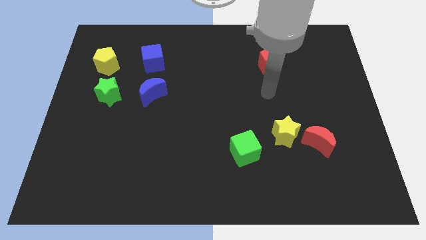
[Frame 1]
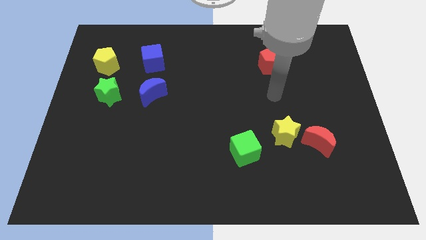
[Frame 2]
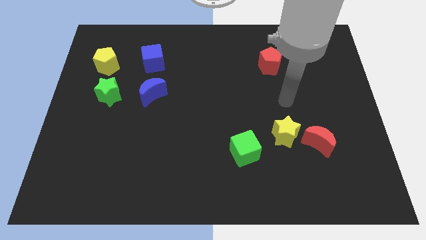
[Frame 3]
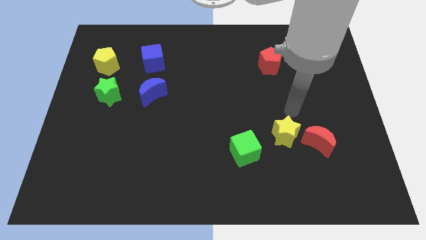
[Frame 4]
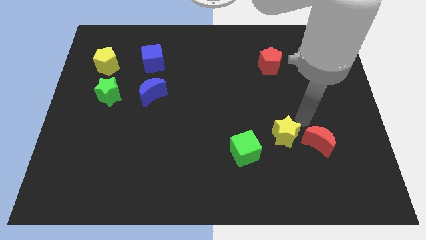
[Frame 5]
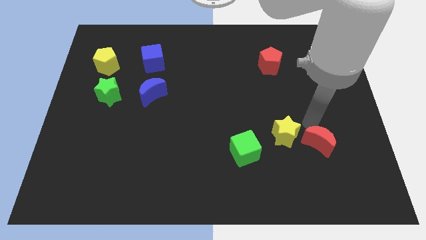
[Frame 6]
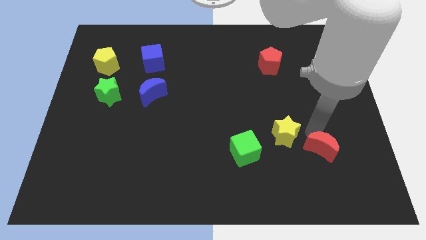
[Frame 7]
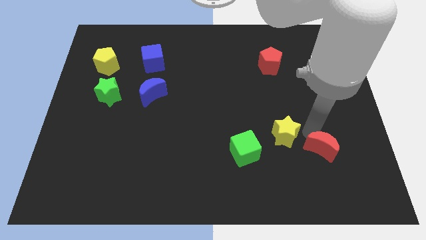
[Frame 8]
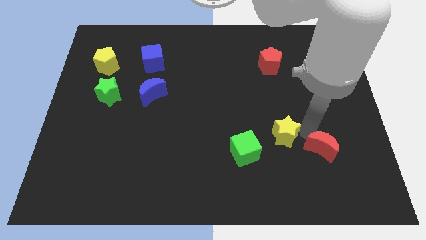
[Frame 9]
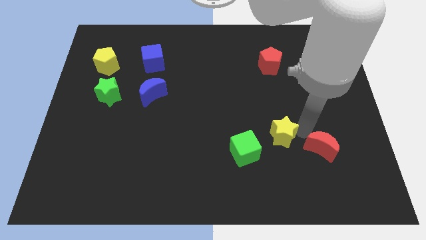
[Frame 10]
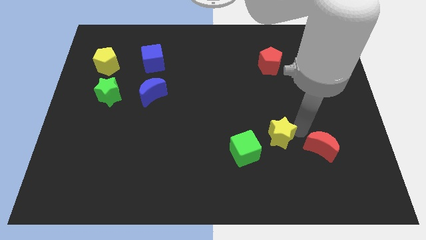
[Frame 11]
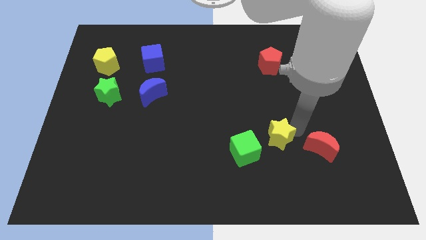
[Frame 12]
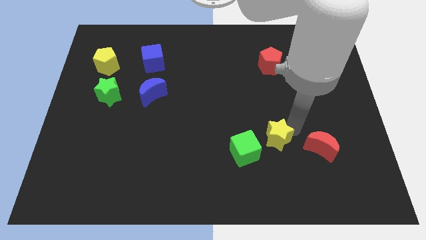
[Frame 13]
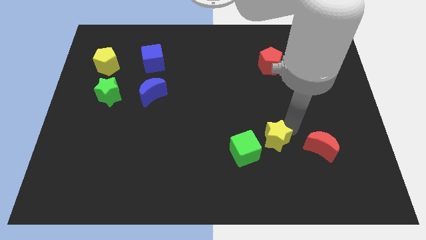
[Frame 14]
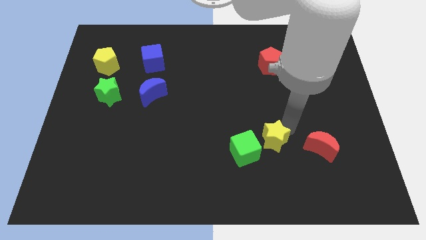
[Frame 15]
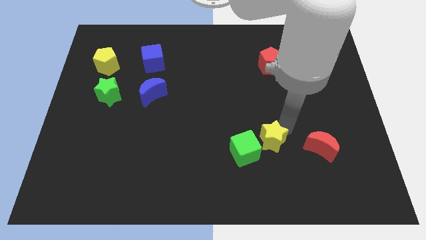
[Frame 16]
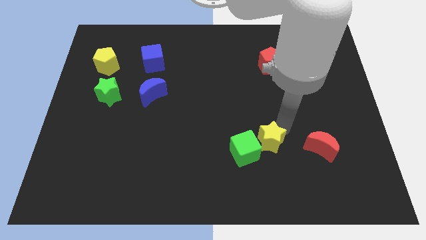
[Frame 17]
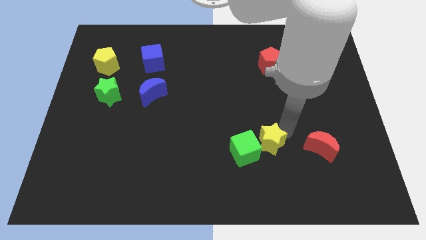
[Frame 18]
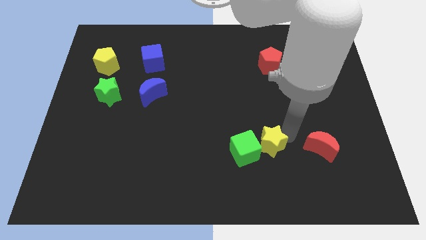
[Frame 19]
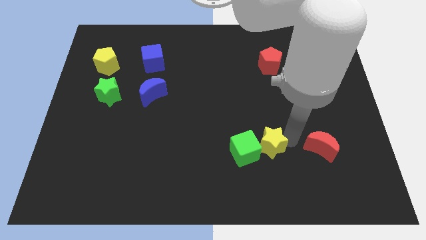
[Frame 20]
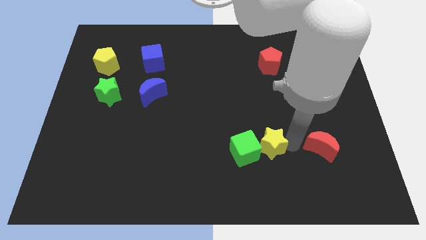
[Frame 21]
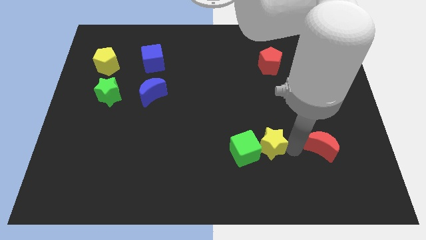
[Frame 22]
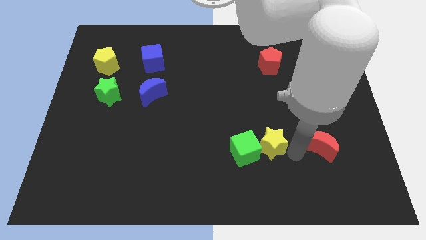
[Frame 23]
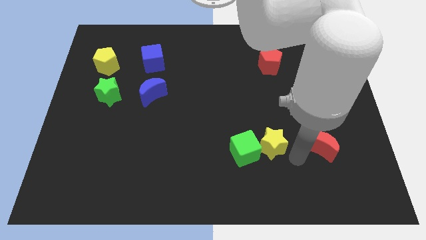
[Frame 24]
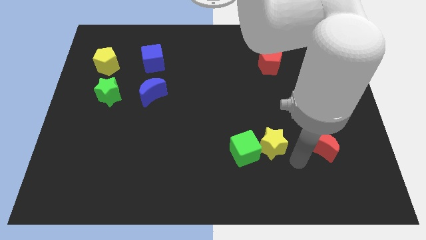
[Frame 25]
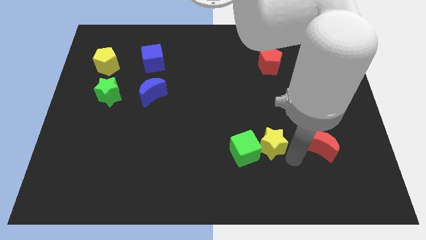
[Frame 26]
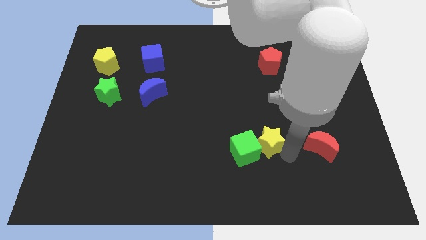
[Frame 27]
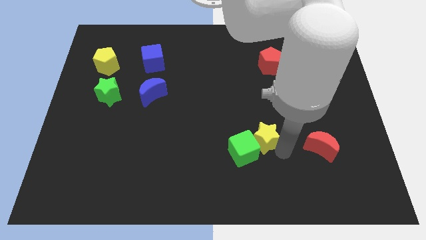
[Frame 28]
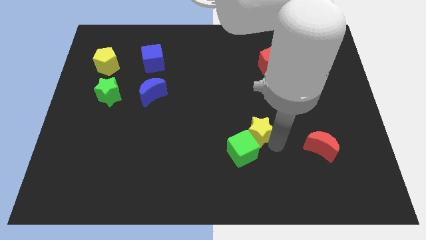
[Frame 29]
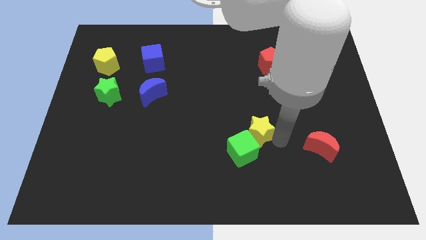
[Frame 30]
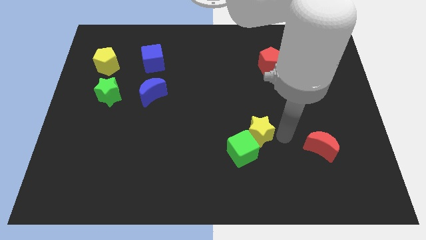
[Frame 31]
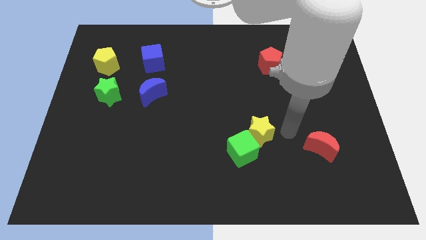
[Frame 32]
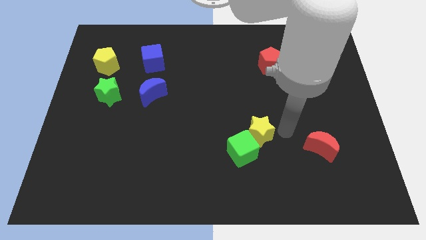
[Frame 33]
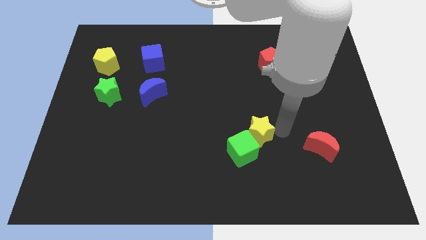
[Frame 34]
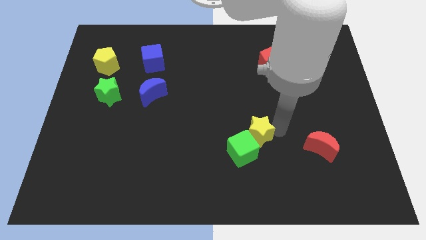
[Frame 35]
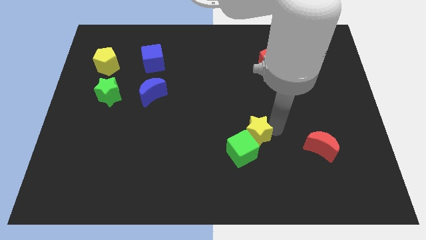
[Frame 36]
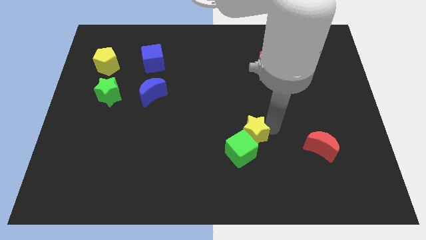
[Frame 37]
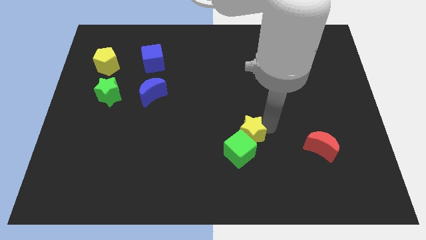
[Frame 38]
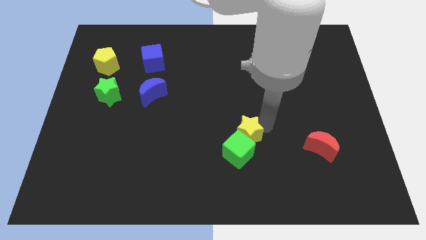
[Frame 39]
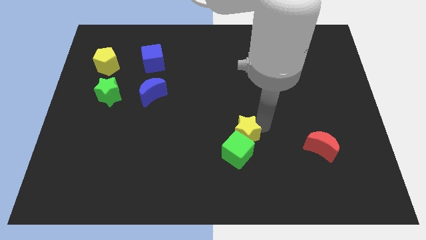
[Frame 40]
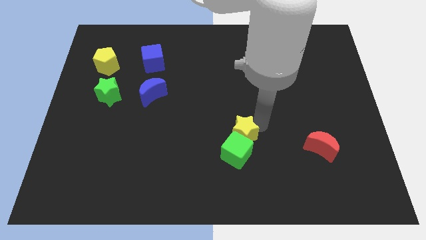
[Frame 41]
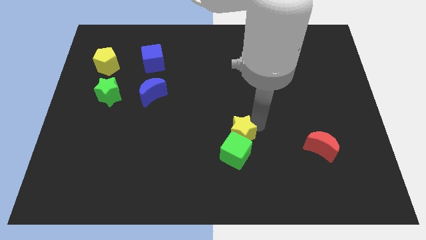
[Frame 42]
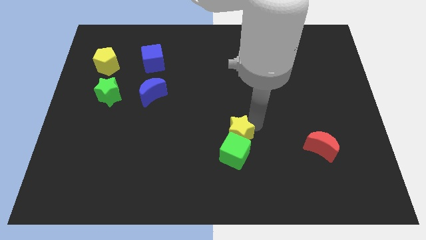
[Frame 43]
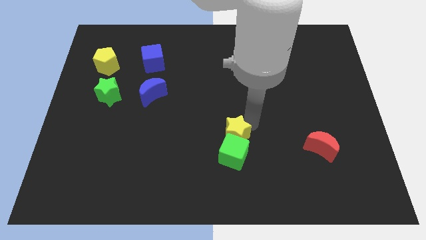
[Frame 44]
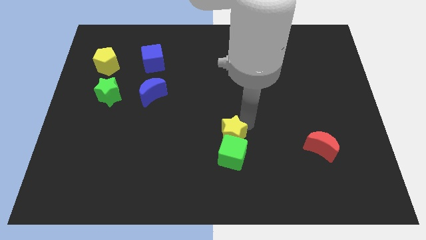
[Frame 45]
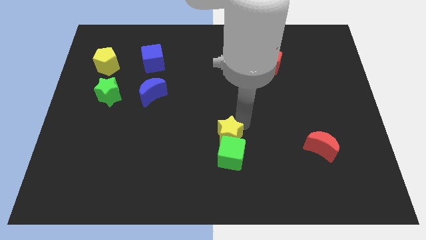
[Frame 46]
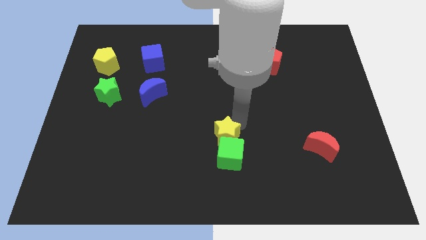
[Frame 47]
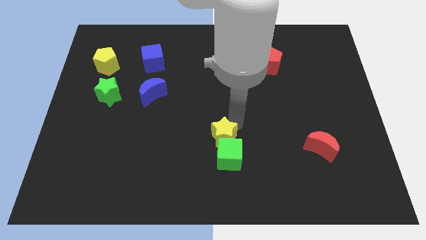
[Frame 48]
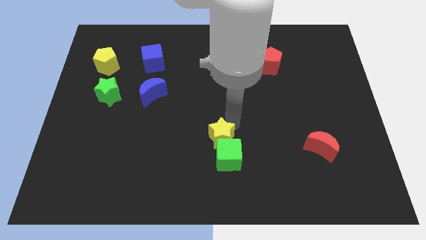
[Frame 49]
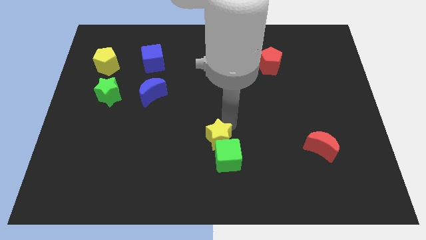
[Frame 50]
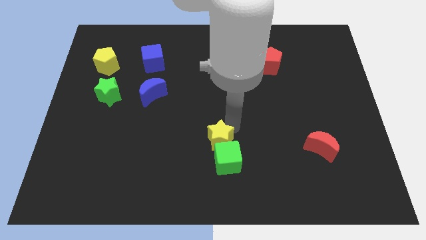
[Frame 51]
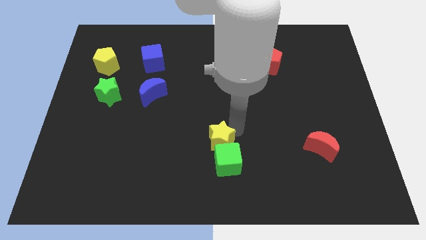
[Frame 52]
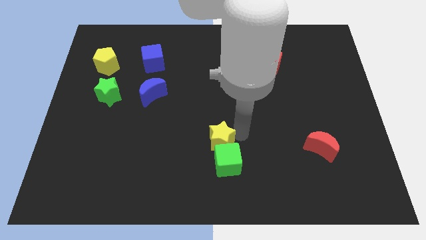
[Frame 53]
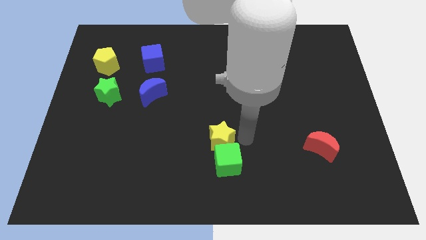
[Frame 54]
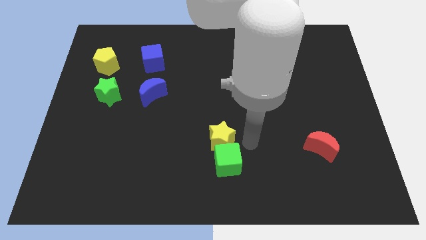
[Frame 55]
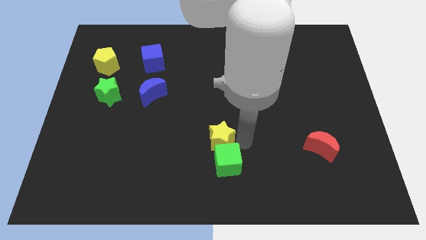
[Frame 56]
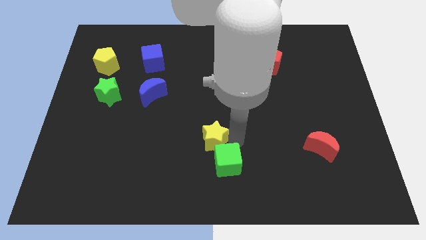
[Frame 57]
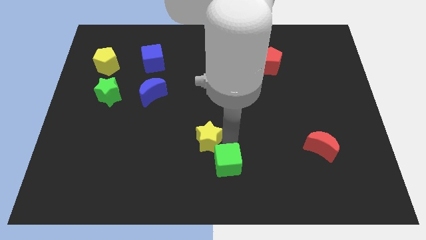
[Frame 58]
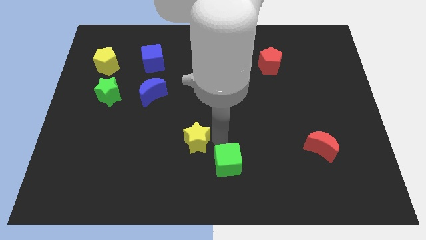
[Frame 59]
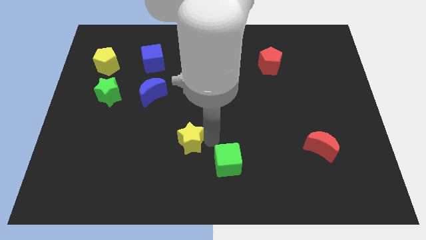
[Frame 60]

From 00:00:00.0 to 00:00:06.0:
move the yellow star left

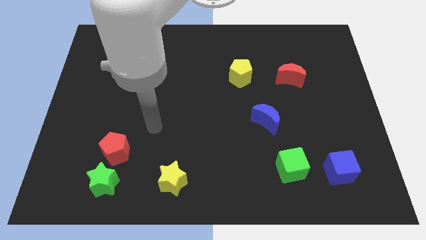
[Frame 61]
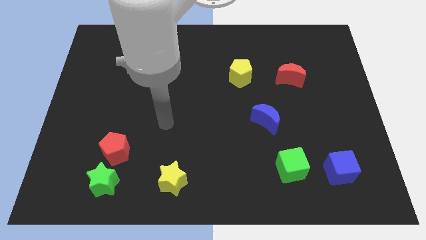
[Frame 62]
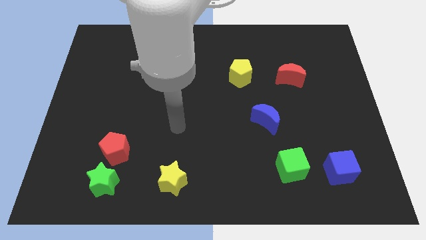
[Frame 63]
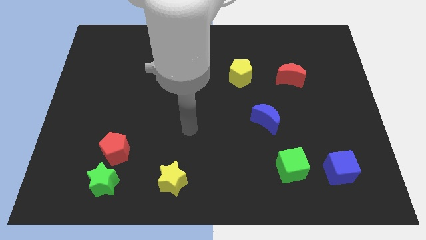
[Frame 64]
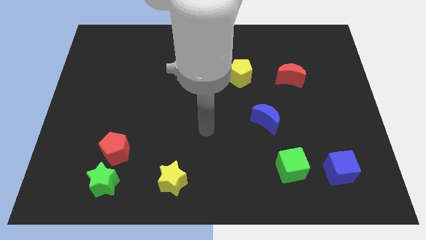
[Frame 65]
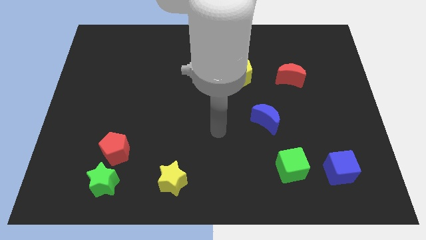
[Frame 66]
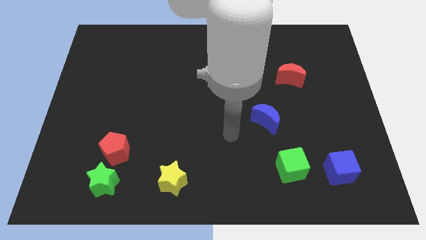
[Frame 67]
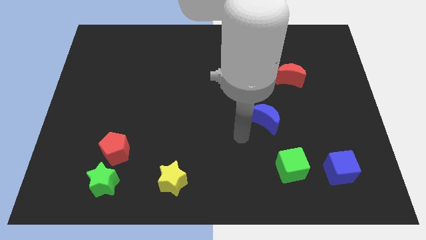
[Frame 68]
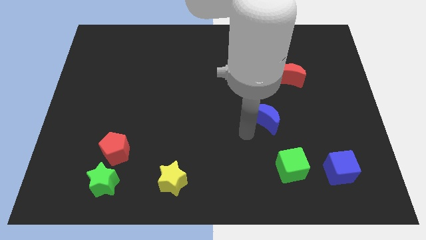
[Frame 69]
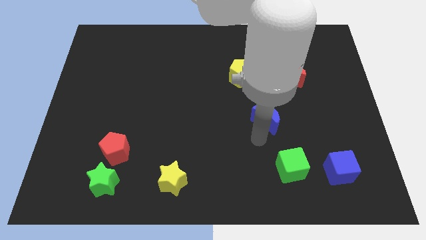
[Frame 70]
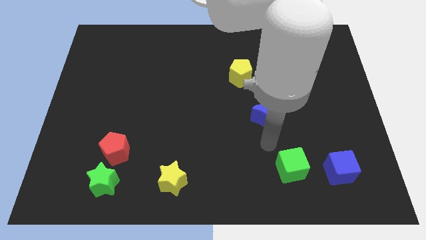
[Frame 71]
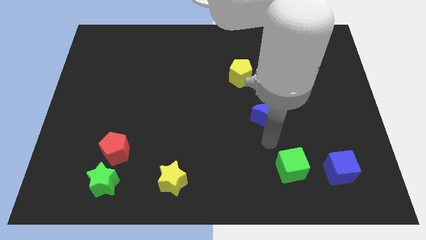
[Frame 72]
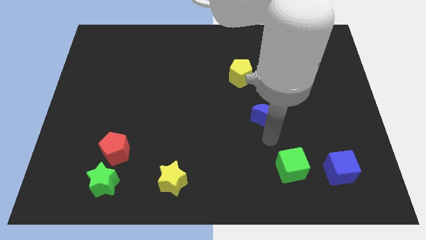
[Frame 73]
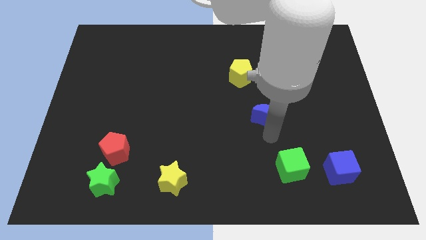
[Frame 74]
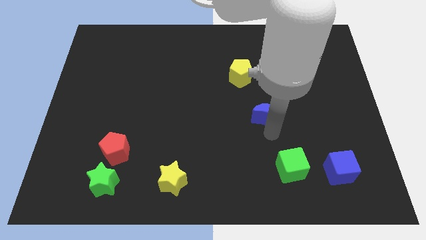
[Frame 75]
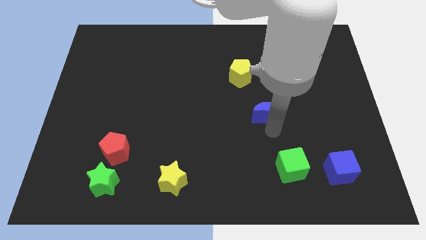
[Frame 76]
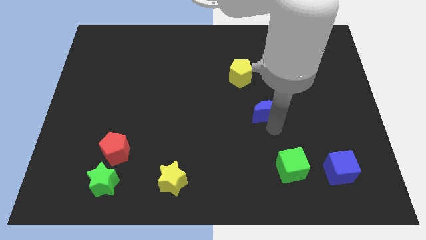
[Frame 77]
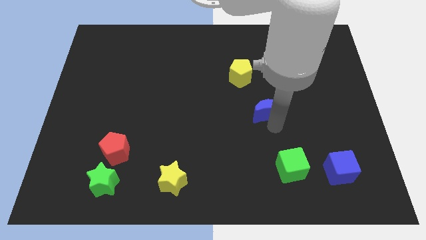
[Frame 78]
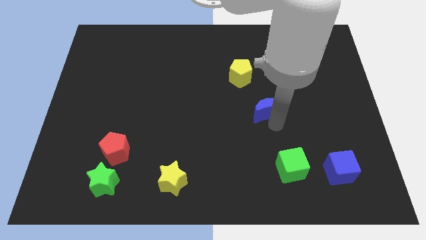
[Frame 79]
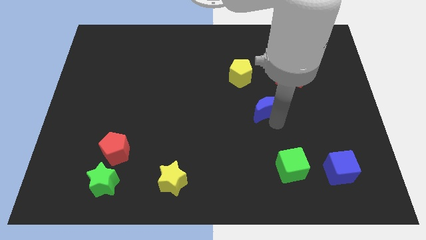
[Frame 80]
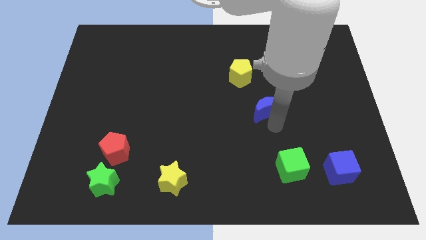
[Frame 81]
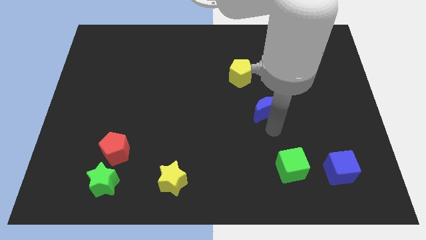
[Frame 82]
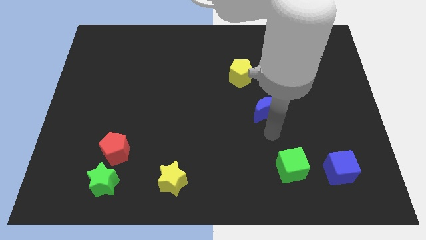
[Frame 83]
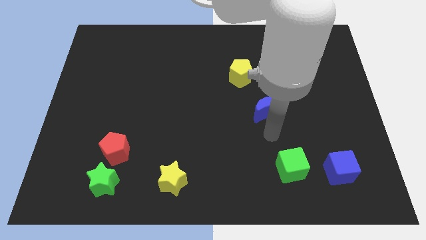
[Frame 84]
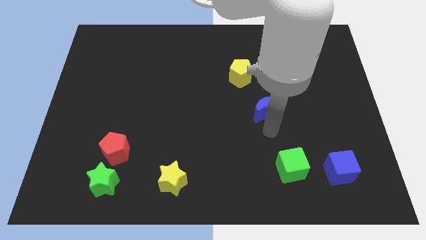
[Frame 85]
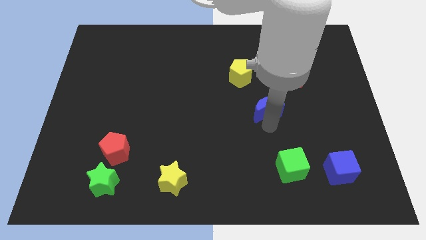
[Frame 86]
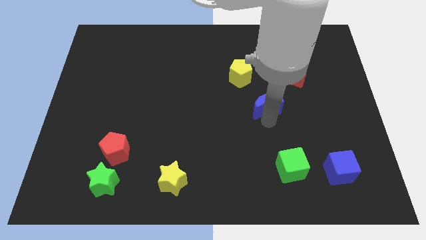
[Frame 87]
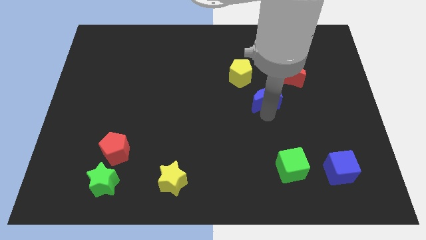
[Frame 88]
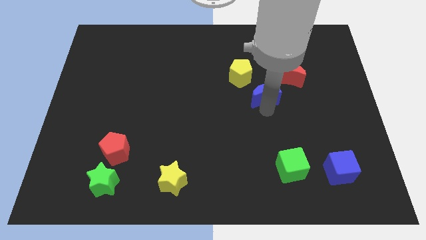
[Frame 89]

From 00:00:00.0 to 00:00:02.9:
slide the blue moon up somewhat
